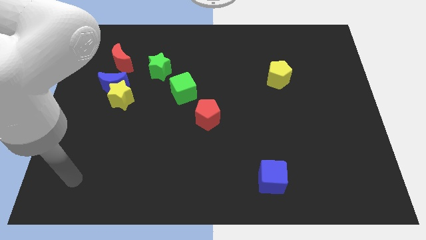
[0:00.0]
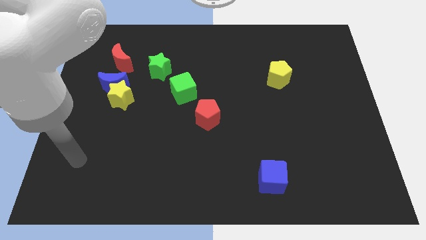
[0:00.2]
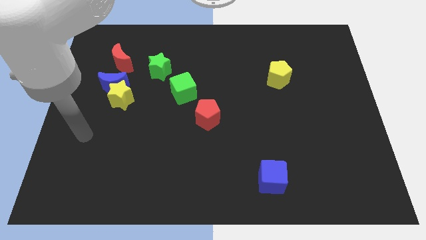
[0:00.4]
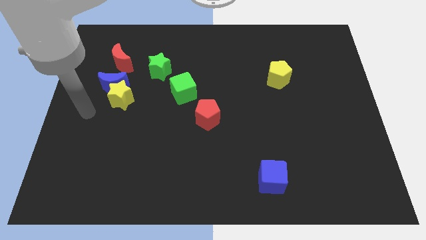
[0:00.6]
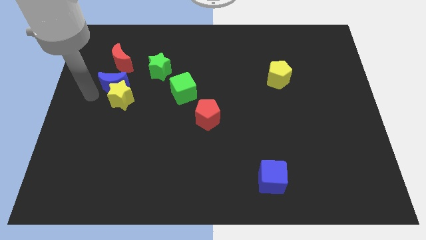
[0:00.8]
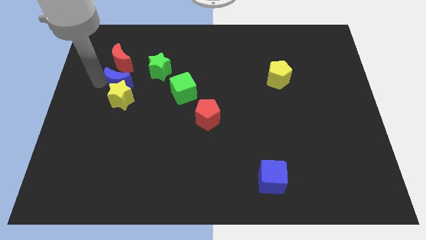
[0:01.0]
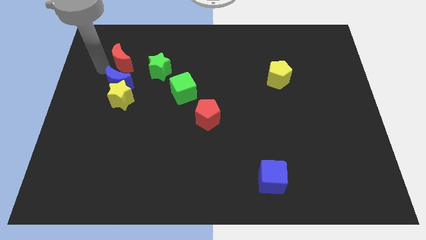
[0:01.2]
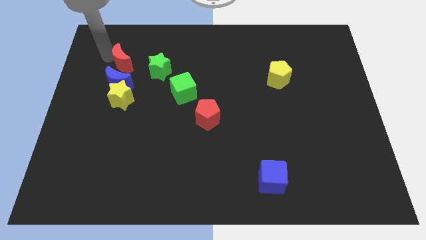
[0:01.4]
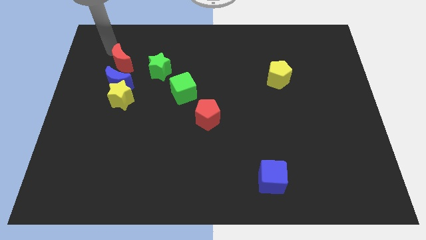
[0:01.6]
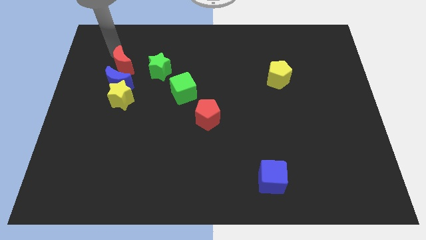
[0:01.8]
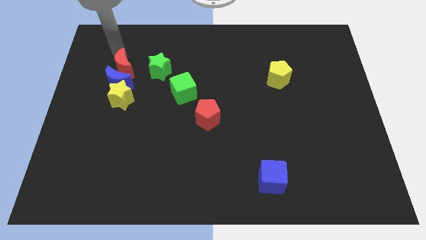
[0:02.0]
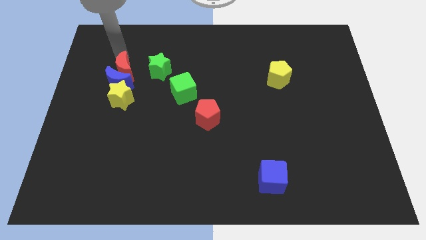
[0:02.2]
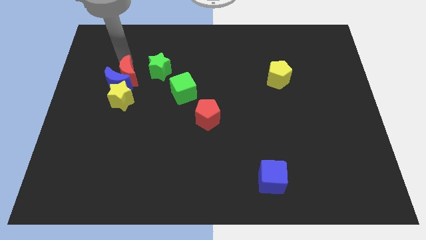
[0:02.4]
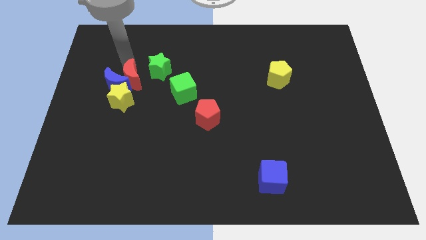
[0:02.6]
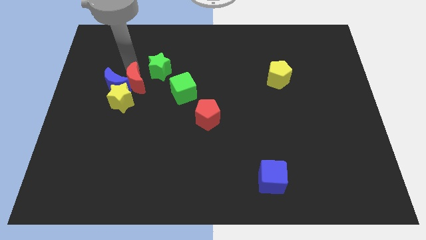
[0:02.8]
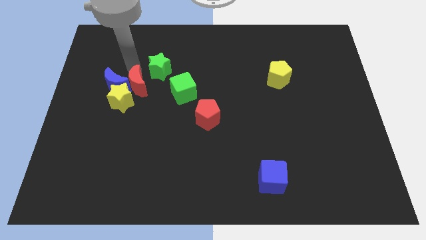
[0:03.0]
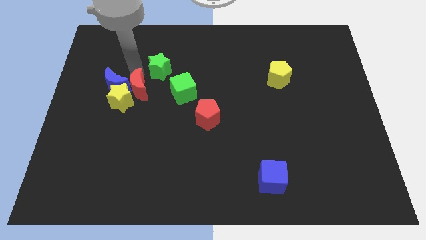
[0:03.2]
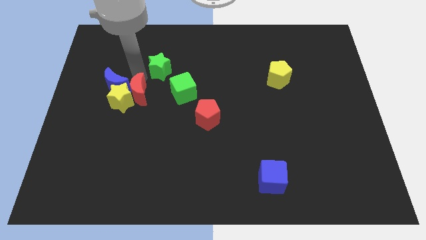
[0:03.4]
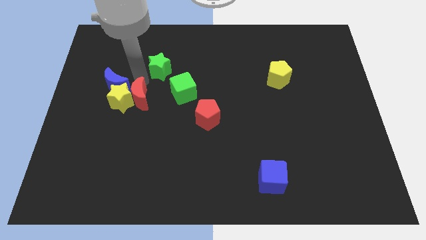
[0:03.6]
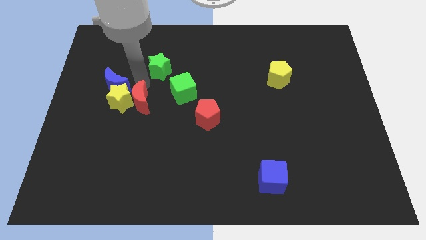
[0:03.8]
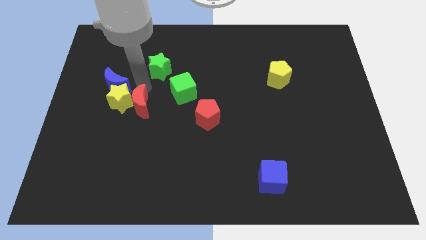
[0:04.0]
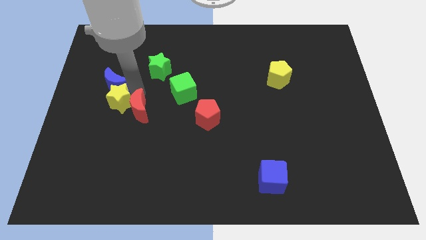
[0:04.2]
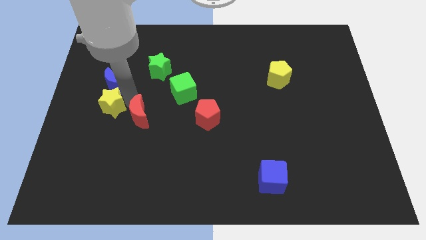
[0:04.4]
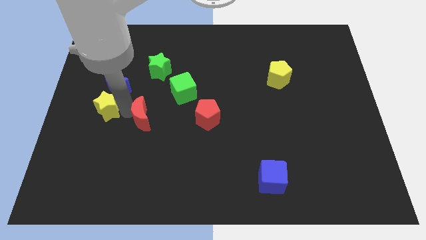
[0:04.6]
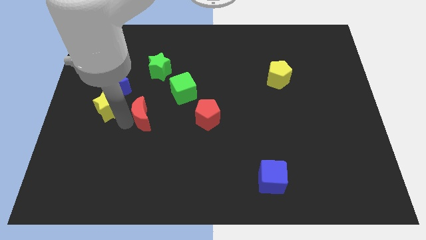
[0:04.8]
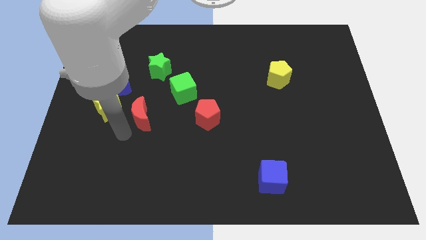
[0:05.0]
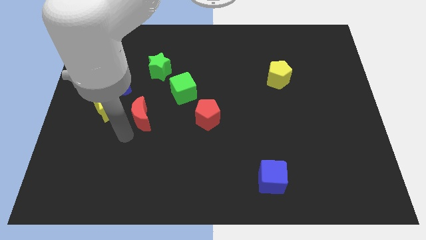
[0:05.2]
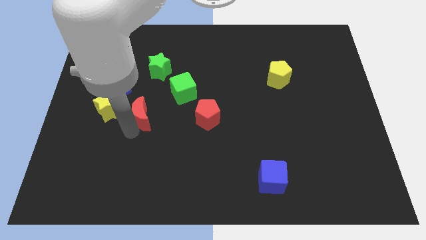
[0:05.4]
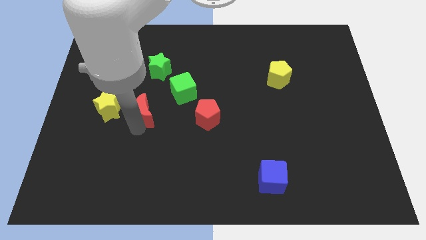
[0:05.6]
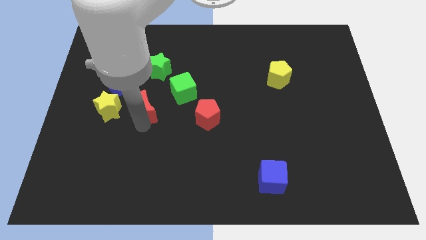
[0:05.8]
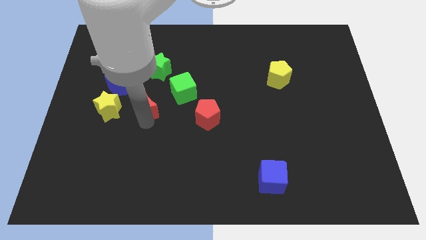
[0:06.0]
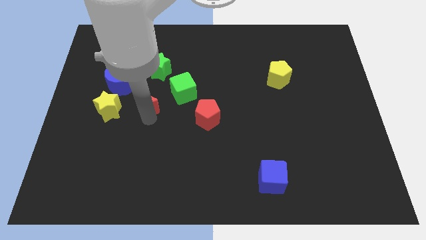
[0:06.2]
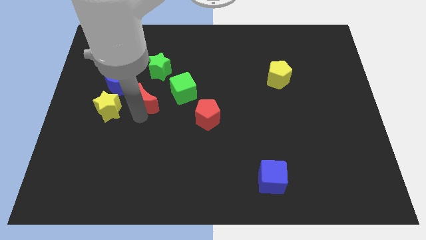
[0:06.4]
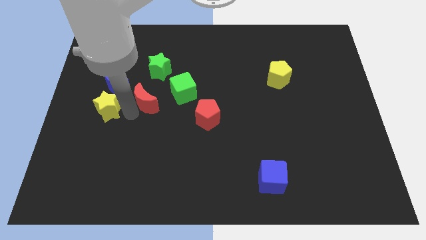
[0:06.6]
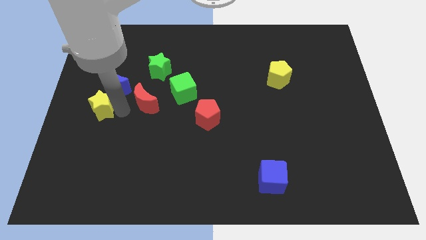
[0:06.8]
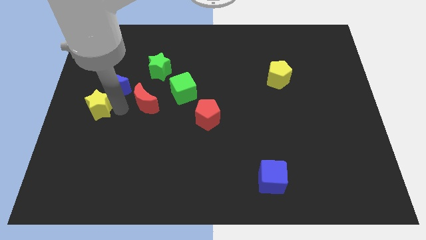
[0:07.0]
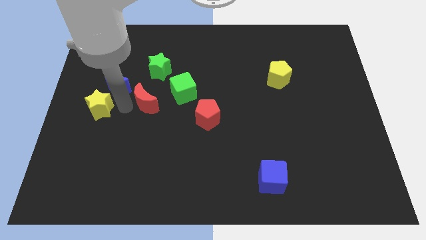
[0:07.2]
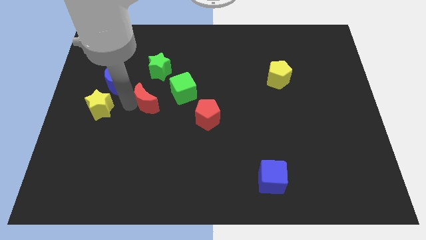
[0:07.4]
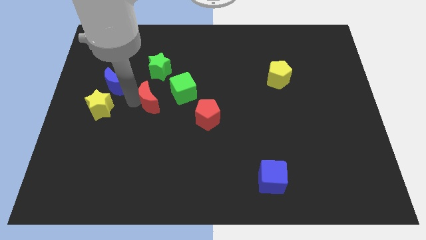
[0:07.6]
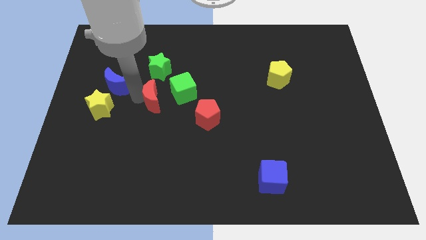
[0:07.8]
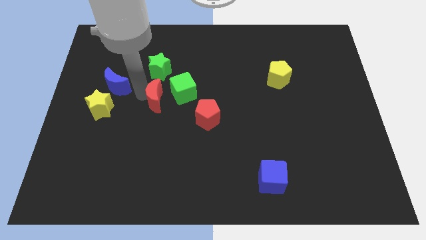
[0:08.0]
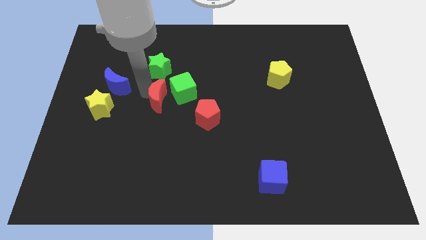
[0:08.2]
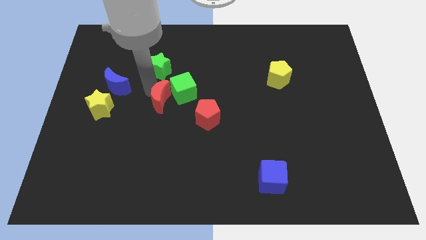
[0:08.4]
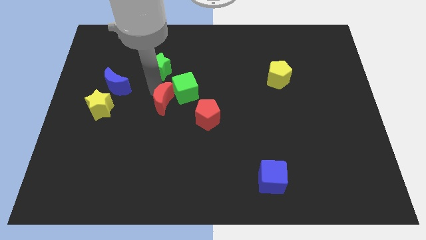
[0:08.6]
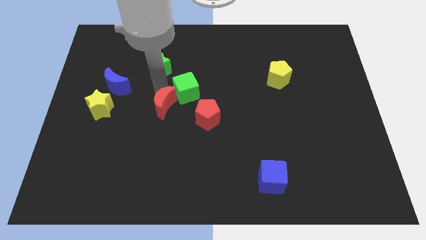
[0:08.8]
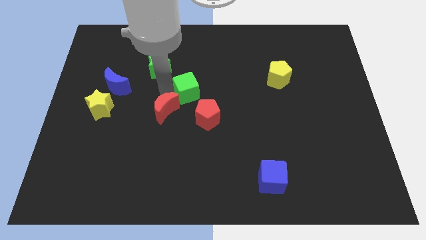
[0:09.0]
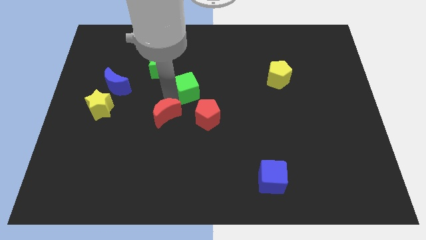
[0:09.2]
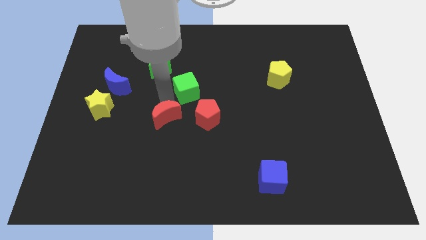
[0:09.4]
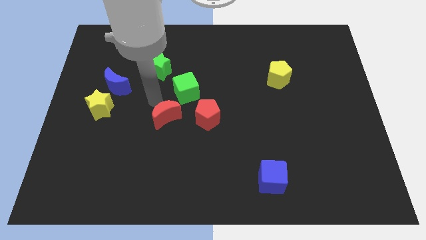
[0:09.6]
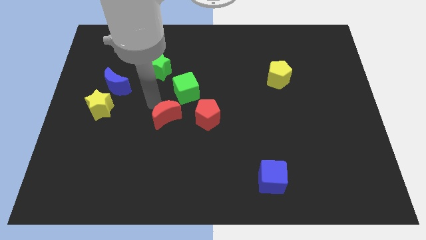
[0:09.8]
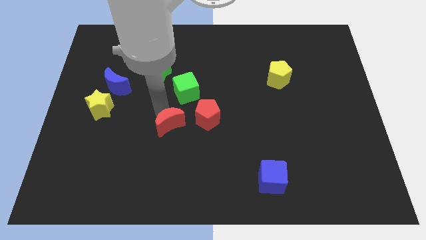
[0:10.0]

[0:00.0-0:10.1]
move the red moon diagonally down and to the left of the red pentagon

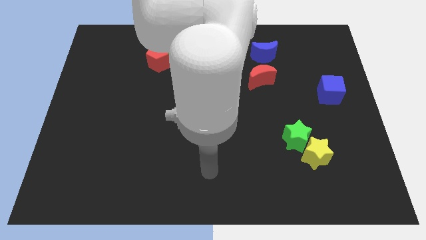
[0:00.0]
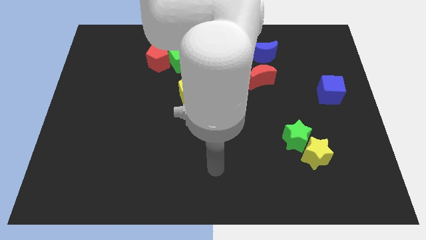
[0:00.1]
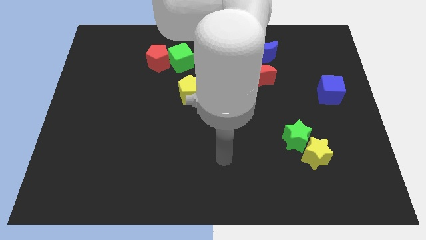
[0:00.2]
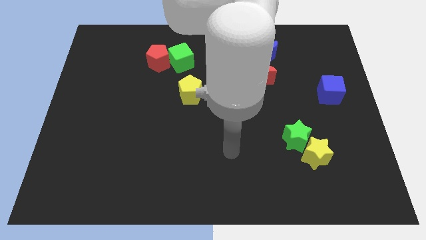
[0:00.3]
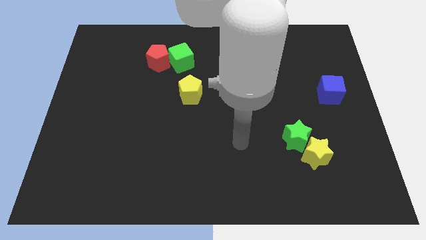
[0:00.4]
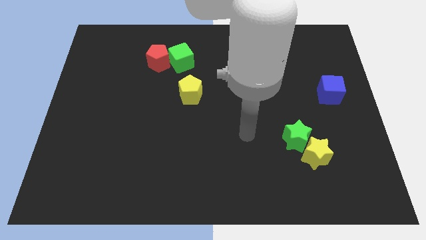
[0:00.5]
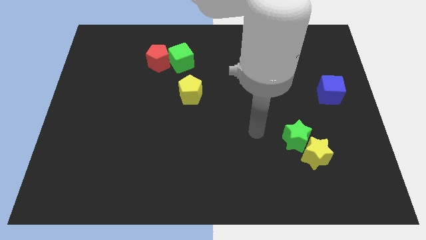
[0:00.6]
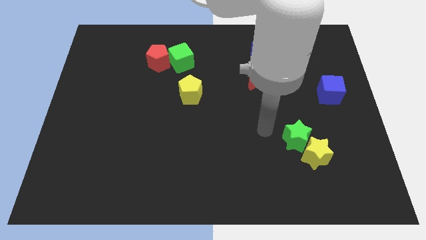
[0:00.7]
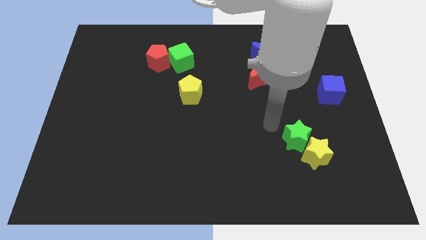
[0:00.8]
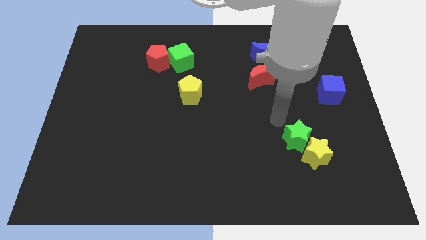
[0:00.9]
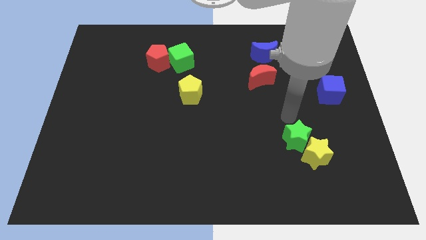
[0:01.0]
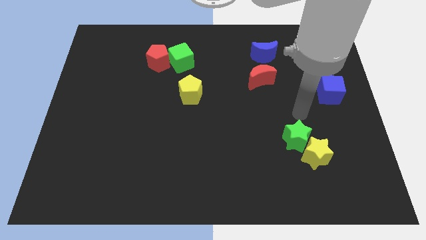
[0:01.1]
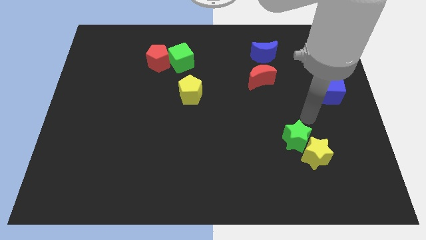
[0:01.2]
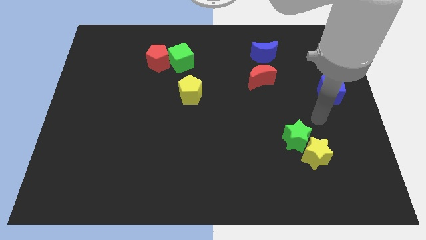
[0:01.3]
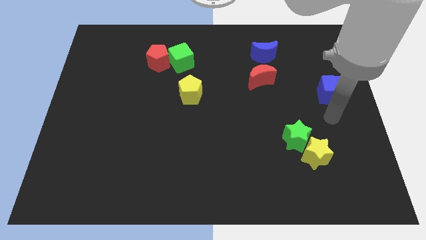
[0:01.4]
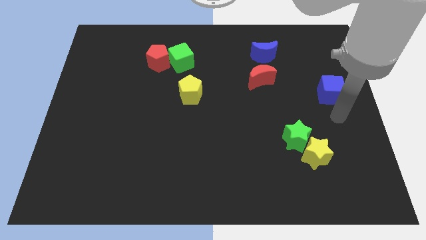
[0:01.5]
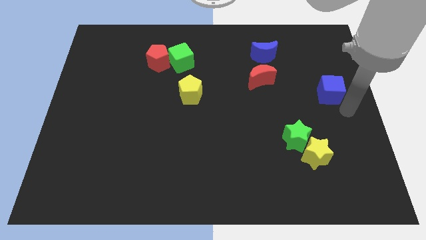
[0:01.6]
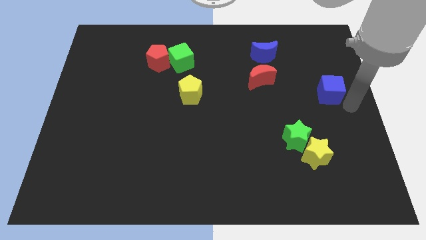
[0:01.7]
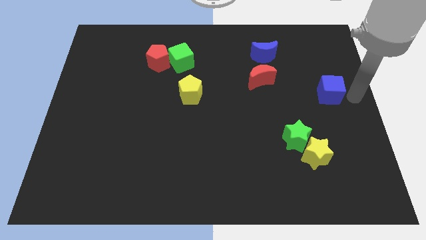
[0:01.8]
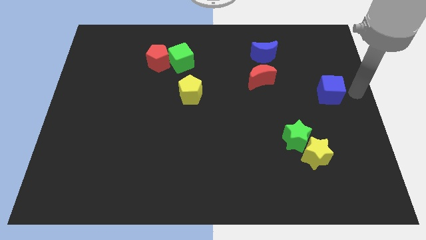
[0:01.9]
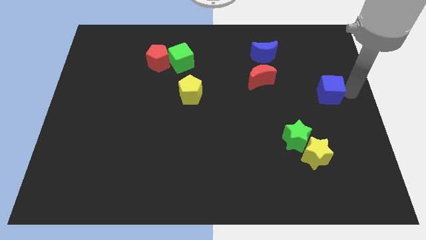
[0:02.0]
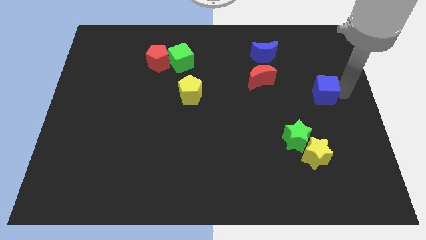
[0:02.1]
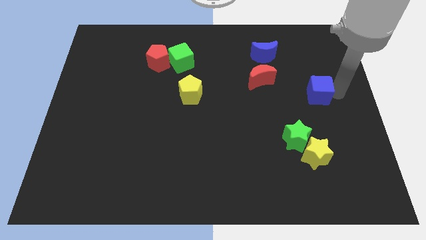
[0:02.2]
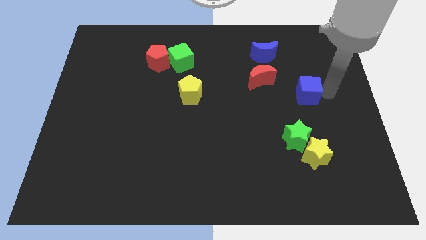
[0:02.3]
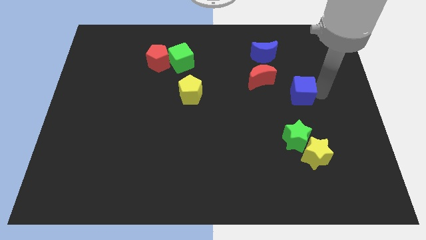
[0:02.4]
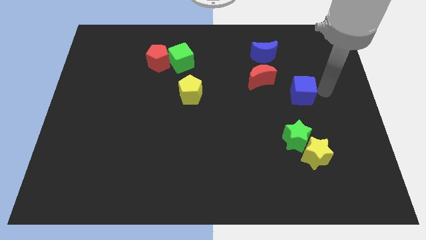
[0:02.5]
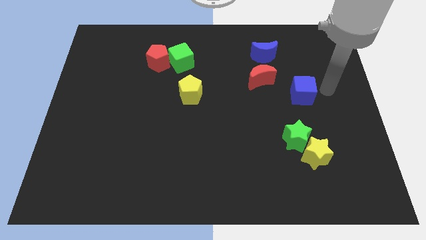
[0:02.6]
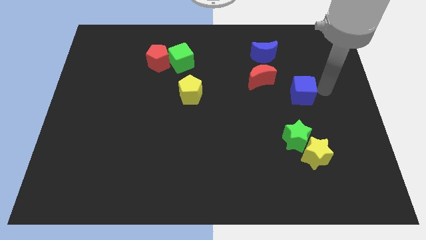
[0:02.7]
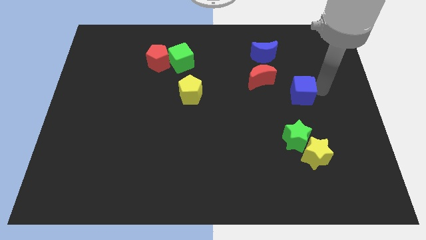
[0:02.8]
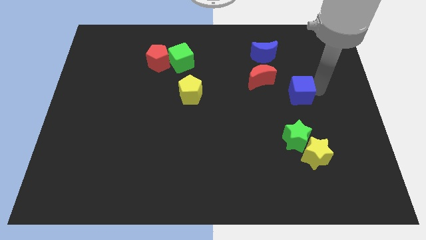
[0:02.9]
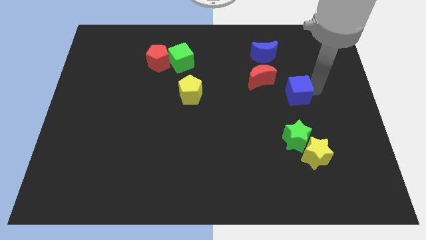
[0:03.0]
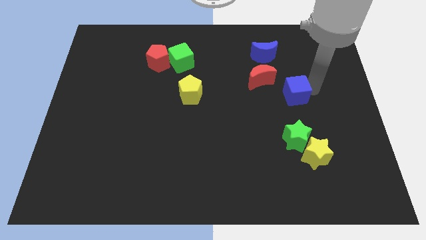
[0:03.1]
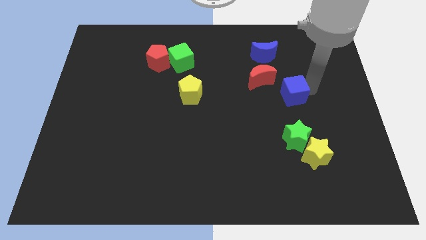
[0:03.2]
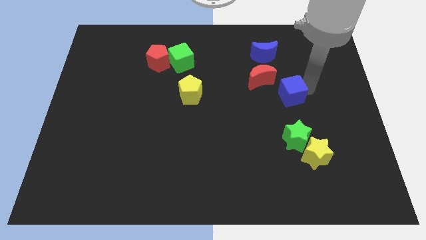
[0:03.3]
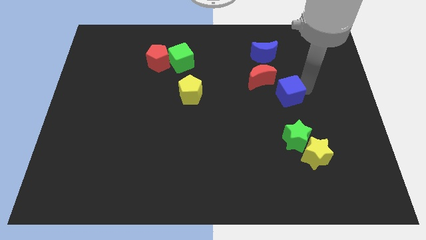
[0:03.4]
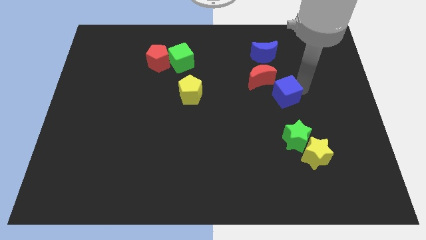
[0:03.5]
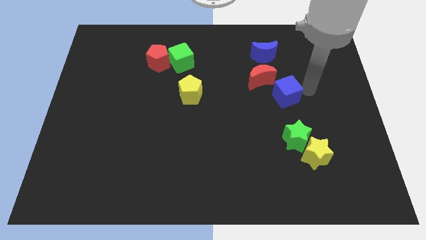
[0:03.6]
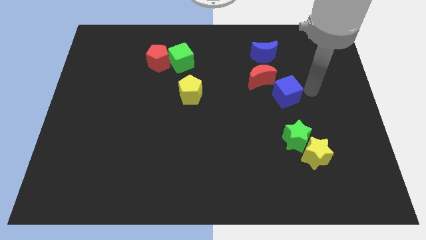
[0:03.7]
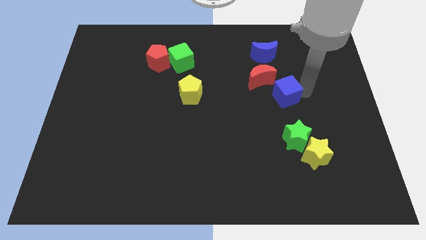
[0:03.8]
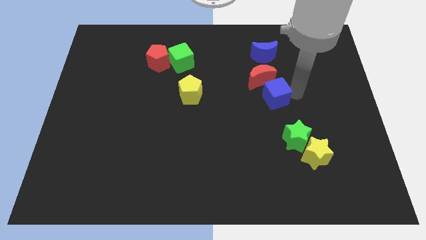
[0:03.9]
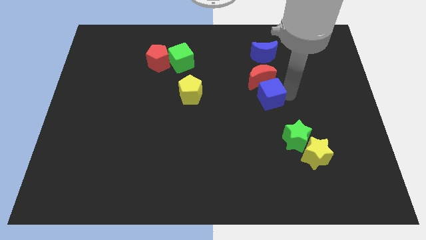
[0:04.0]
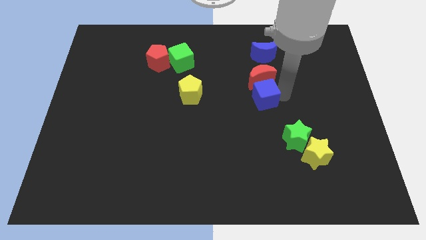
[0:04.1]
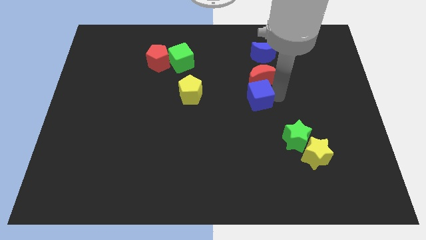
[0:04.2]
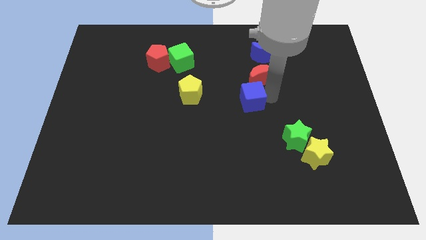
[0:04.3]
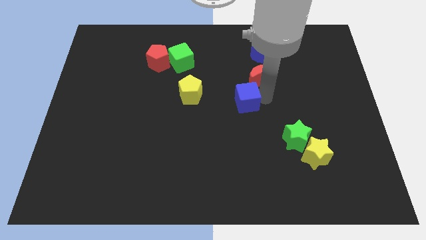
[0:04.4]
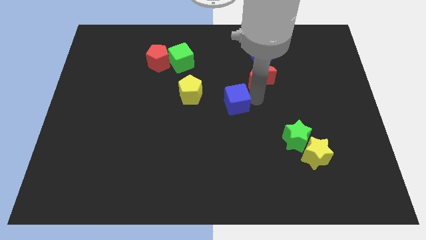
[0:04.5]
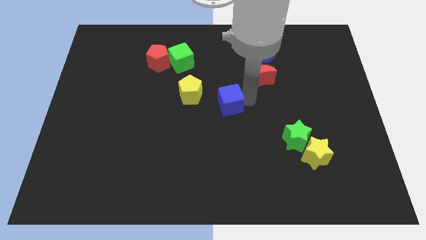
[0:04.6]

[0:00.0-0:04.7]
slide the blue cube to the bottom right of the yellow pentagon
